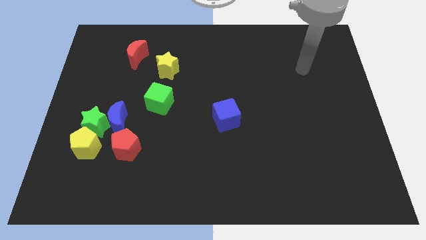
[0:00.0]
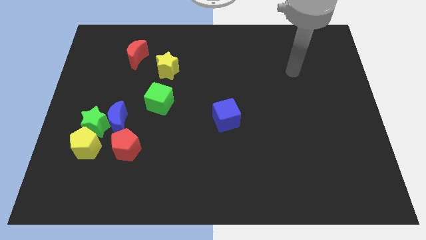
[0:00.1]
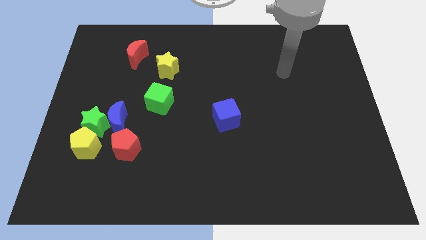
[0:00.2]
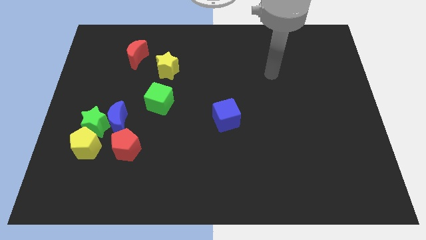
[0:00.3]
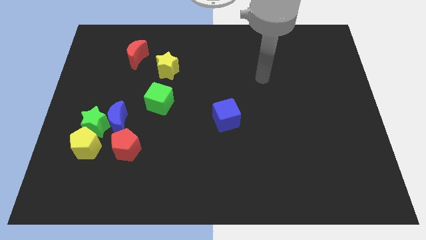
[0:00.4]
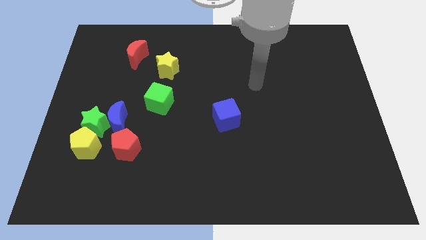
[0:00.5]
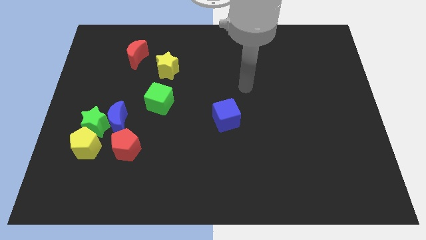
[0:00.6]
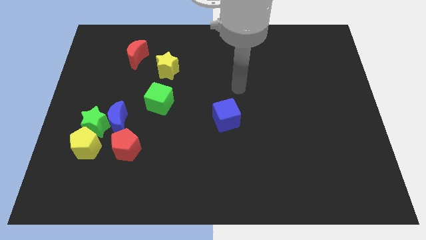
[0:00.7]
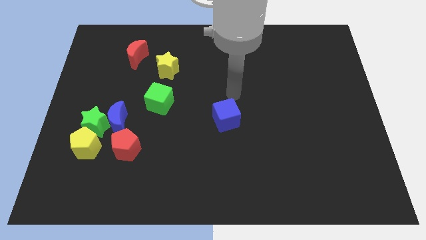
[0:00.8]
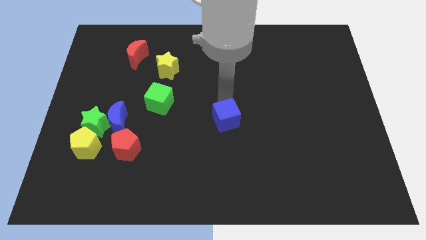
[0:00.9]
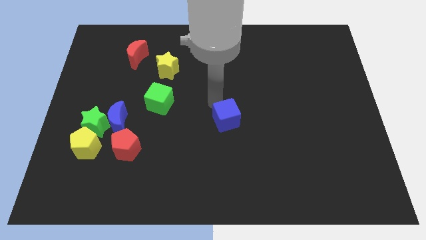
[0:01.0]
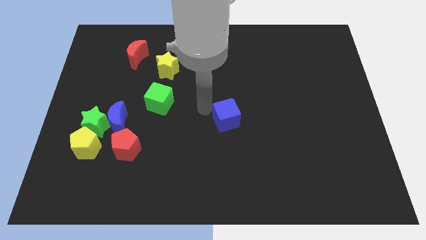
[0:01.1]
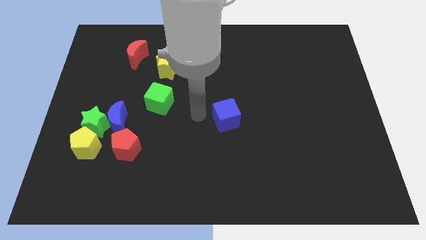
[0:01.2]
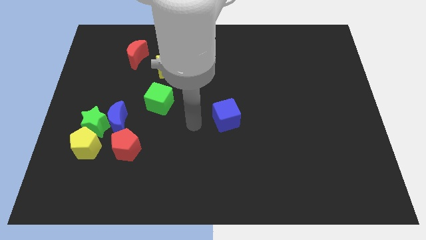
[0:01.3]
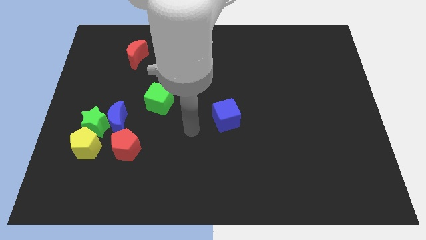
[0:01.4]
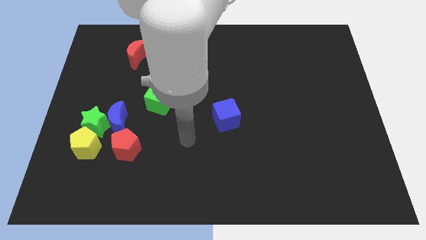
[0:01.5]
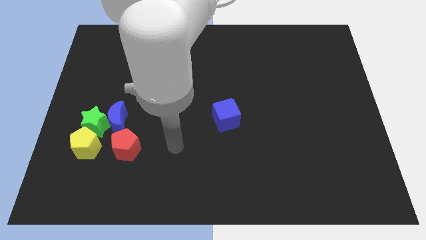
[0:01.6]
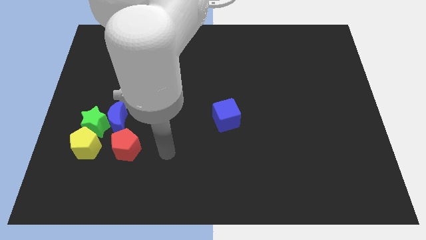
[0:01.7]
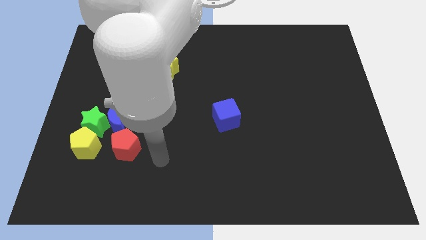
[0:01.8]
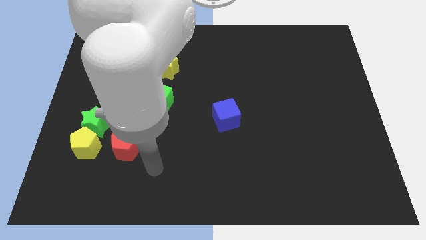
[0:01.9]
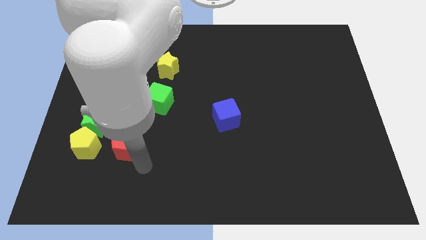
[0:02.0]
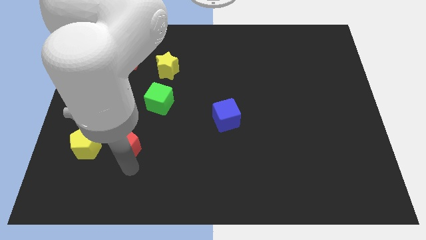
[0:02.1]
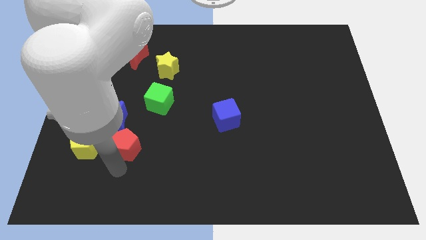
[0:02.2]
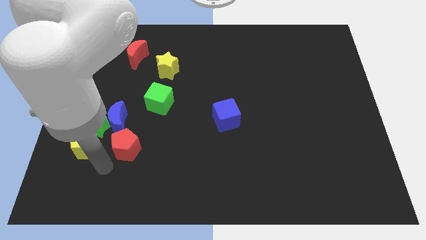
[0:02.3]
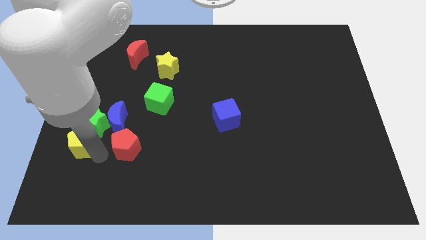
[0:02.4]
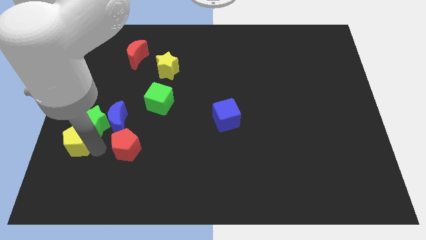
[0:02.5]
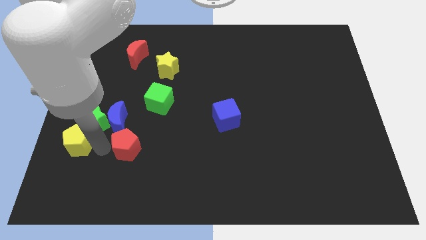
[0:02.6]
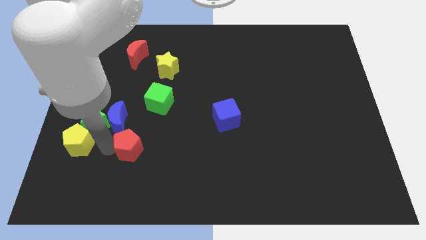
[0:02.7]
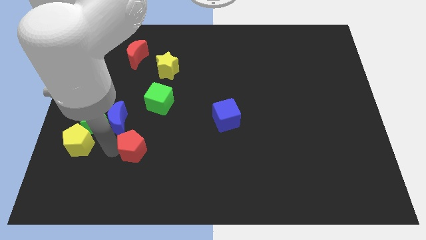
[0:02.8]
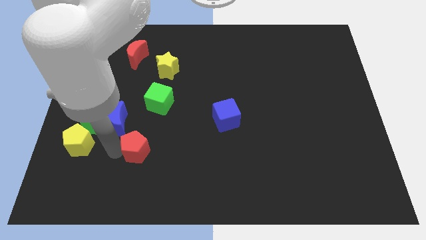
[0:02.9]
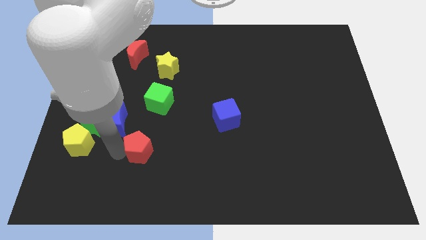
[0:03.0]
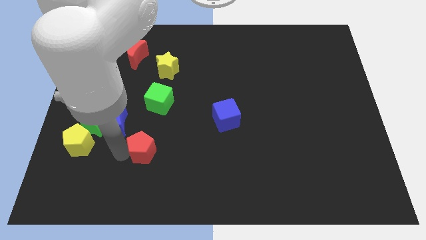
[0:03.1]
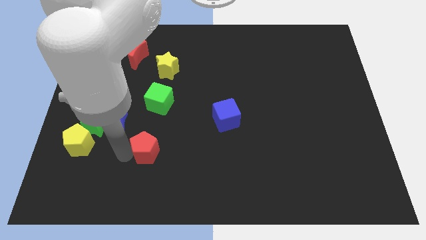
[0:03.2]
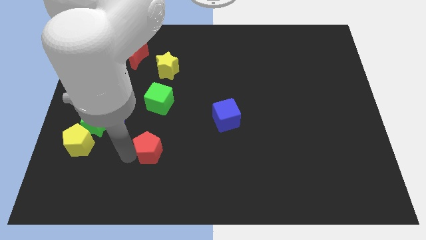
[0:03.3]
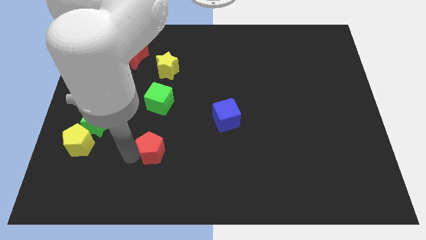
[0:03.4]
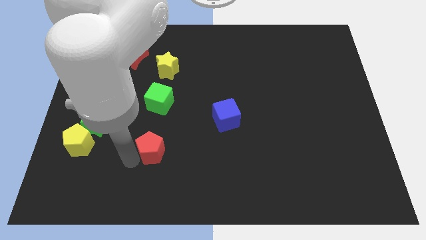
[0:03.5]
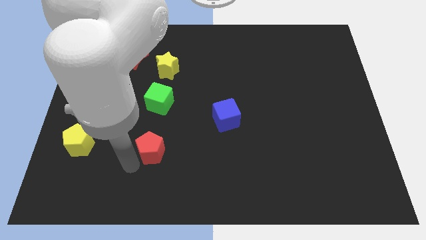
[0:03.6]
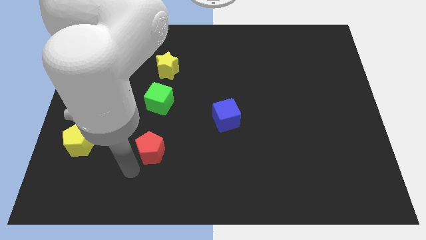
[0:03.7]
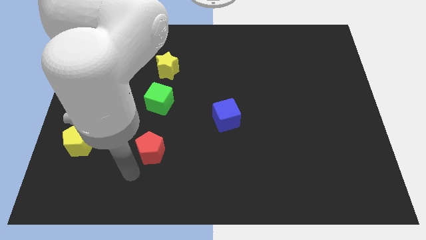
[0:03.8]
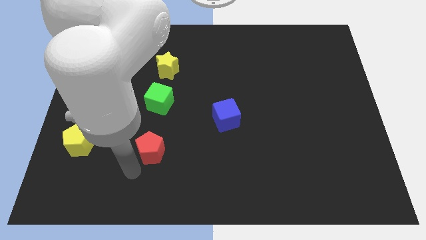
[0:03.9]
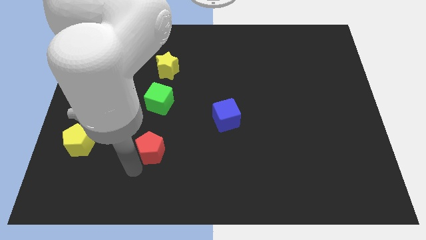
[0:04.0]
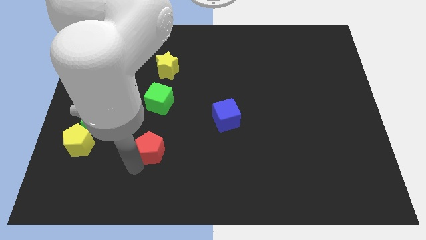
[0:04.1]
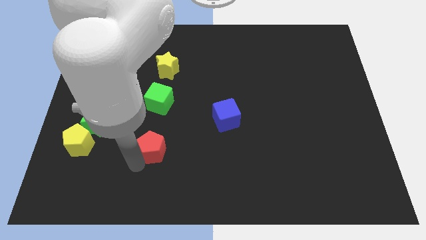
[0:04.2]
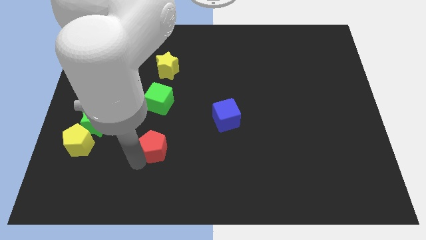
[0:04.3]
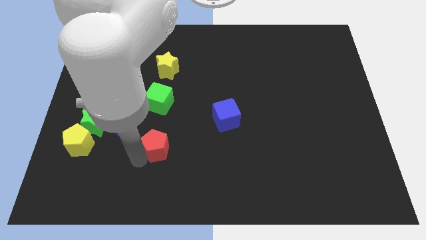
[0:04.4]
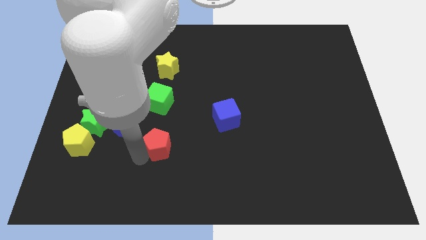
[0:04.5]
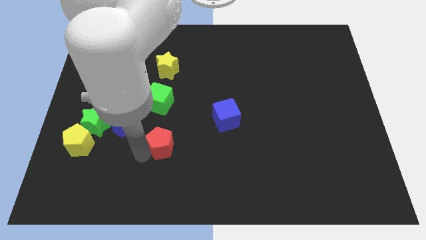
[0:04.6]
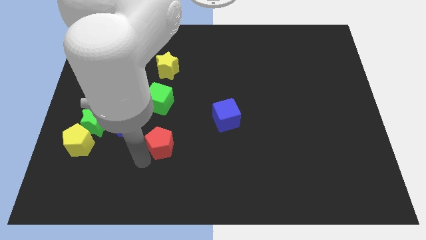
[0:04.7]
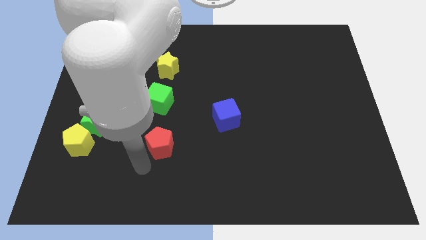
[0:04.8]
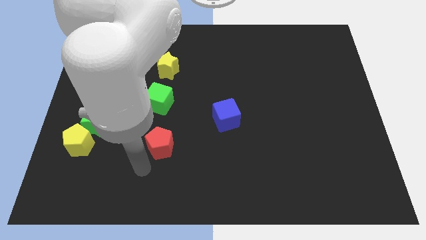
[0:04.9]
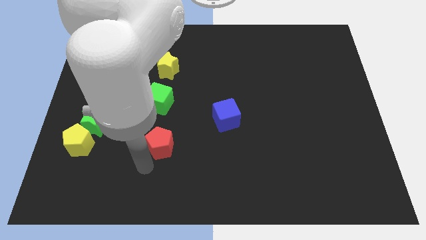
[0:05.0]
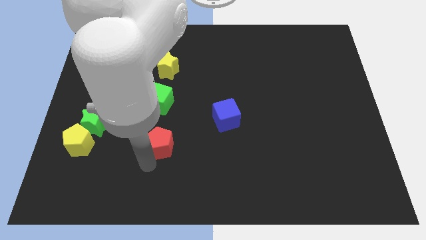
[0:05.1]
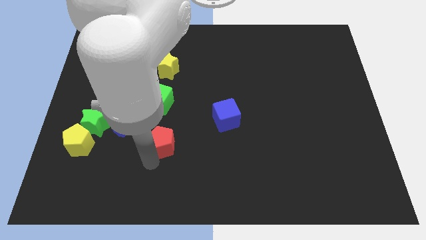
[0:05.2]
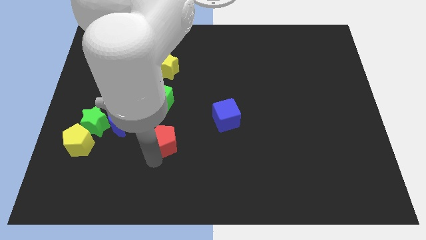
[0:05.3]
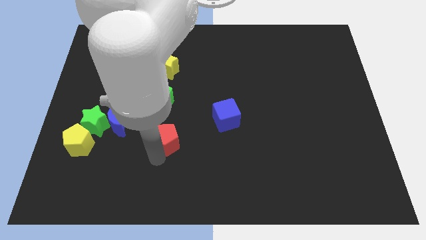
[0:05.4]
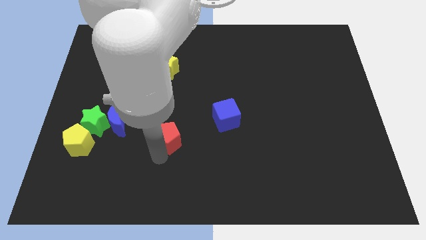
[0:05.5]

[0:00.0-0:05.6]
move the red pentagon somewhat up and then to the right

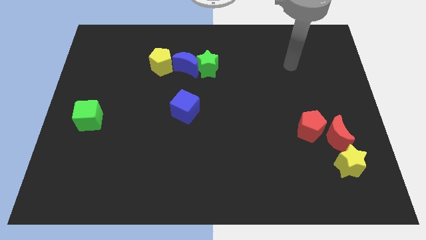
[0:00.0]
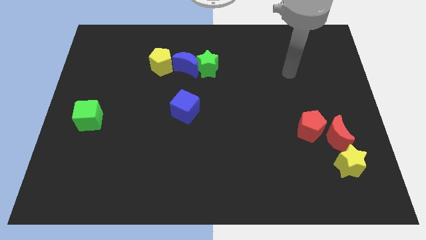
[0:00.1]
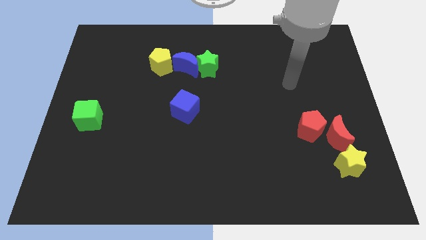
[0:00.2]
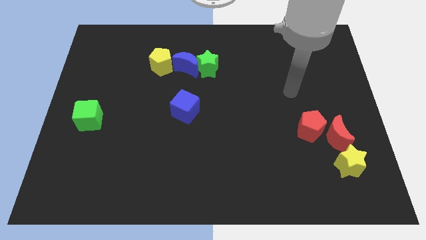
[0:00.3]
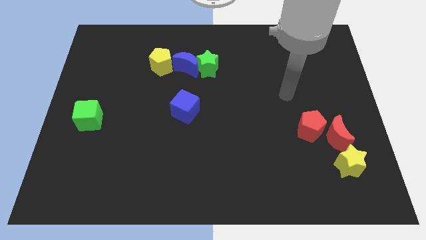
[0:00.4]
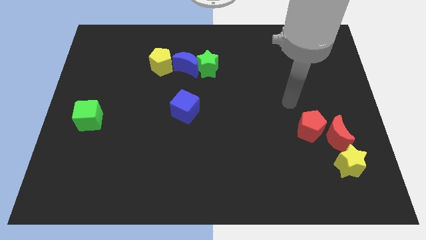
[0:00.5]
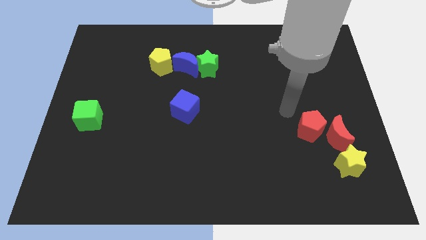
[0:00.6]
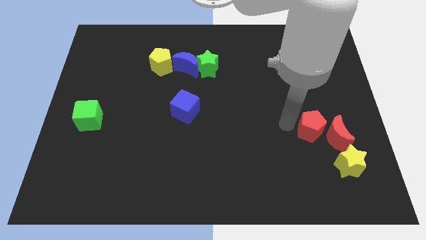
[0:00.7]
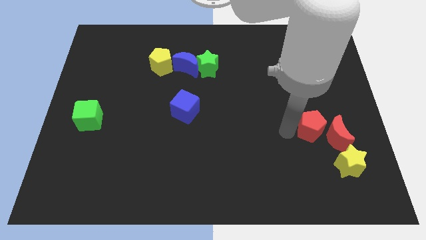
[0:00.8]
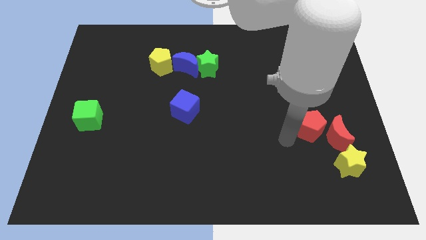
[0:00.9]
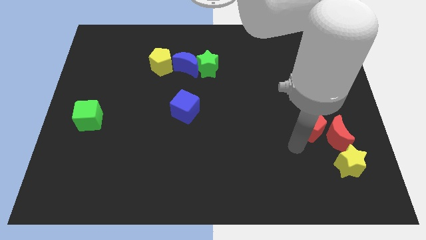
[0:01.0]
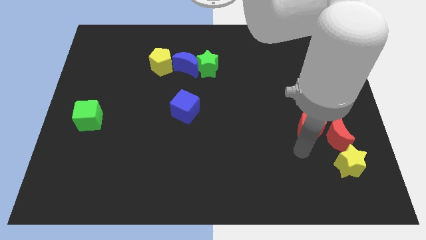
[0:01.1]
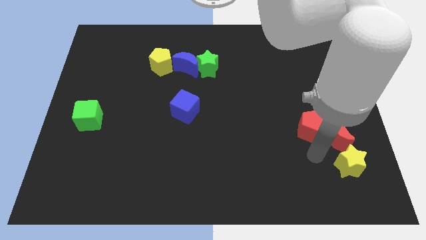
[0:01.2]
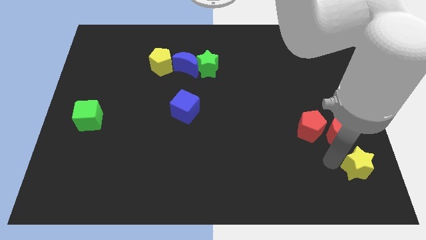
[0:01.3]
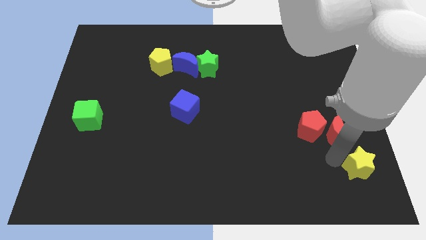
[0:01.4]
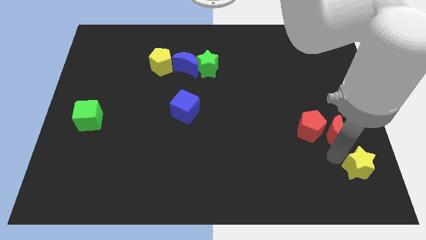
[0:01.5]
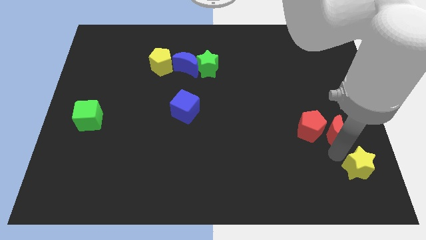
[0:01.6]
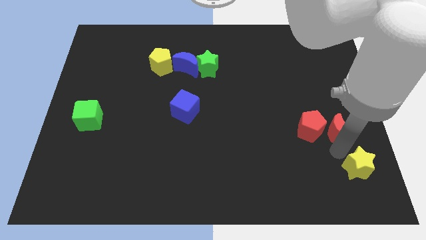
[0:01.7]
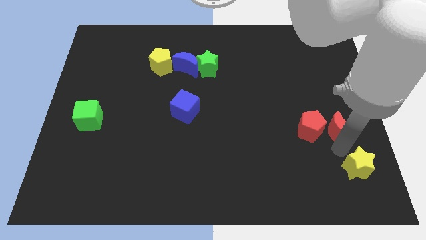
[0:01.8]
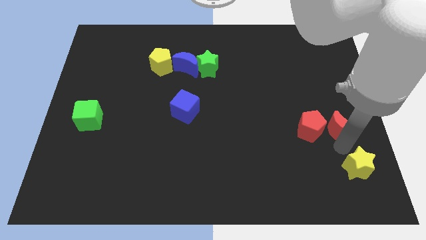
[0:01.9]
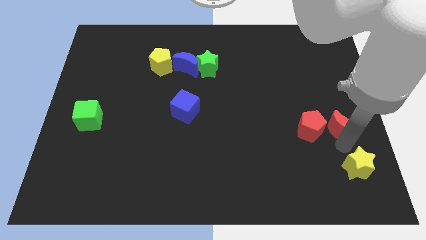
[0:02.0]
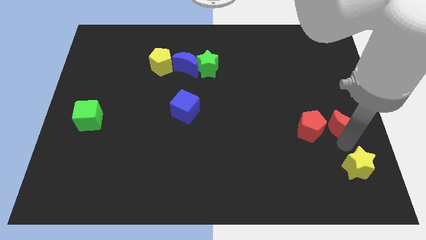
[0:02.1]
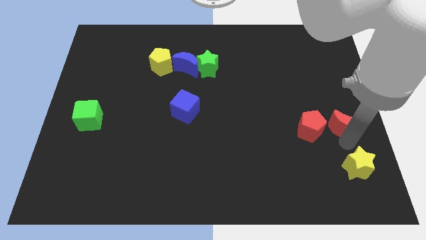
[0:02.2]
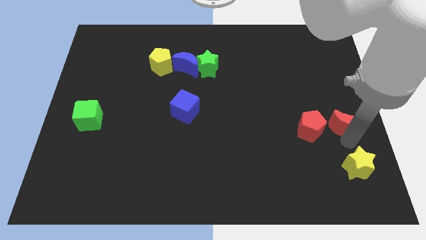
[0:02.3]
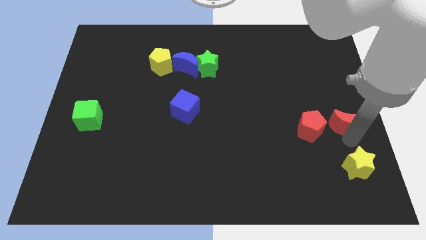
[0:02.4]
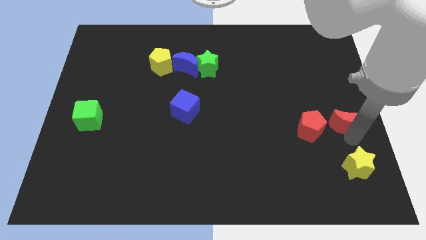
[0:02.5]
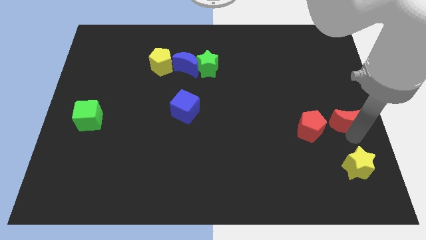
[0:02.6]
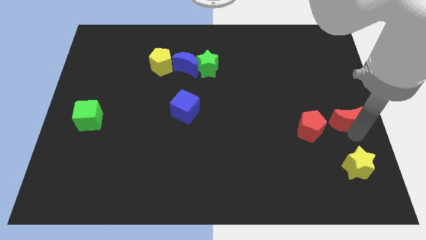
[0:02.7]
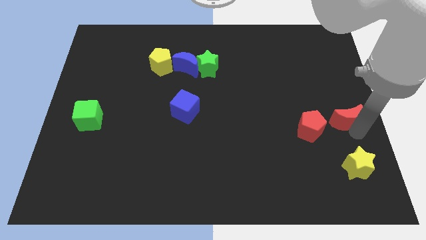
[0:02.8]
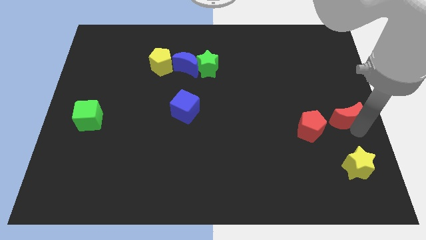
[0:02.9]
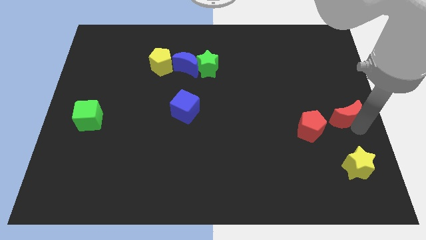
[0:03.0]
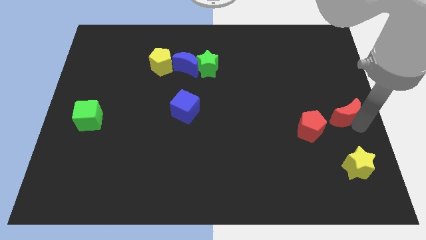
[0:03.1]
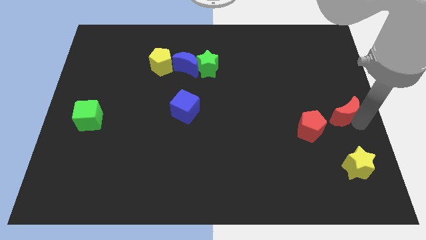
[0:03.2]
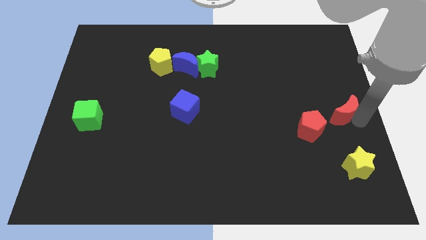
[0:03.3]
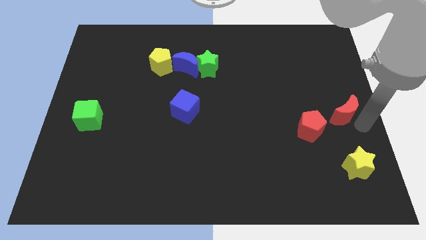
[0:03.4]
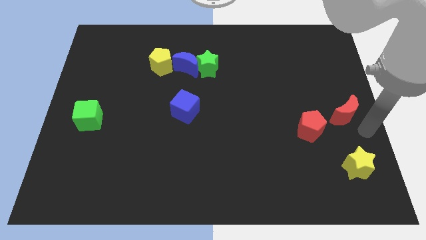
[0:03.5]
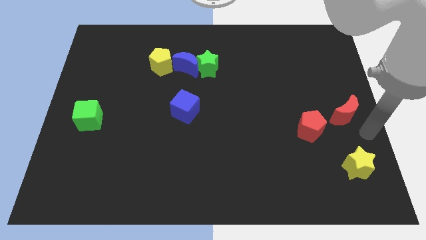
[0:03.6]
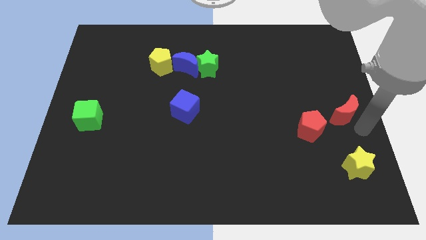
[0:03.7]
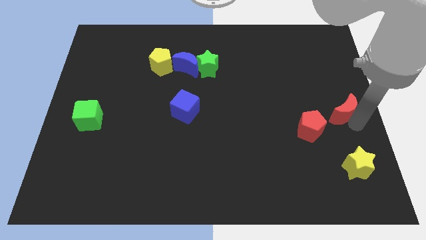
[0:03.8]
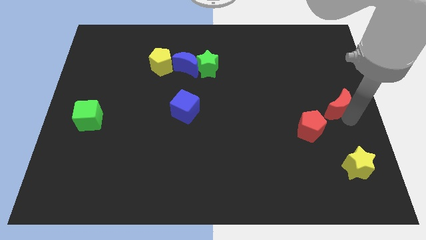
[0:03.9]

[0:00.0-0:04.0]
slightly slide the red moon upwards
